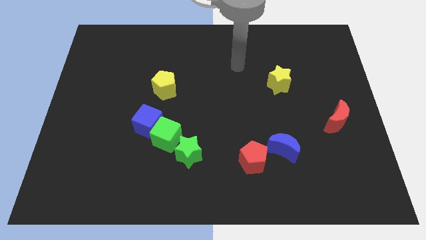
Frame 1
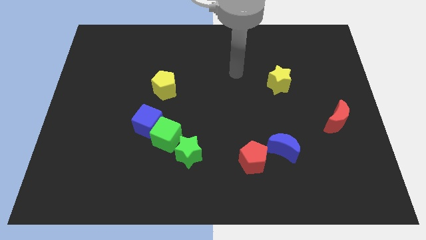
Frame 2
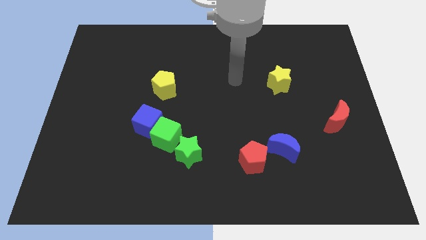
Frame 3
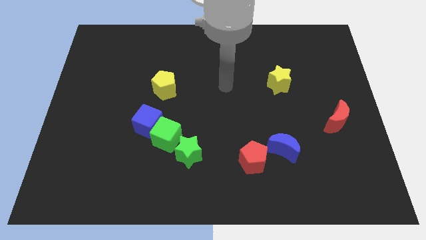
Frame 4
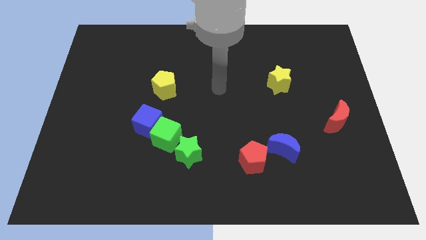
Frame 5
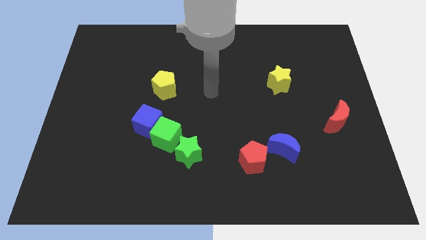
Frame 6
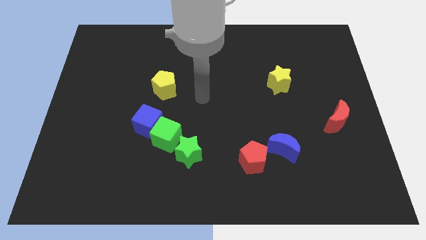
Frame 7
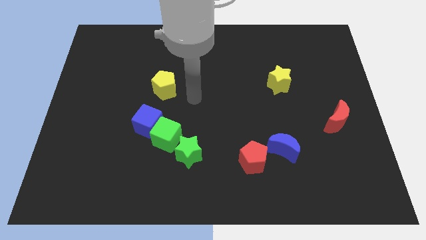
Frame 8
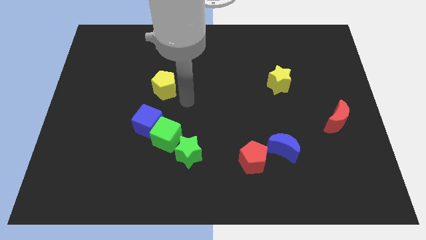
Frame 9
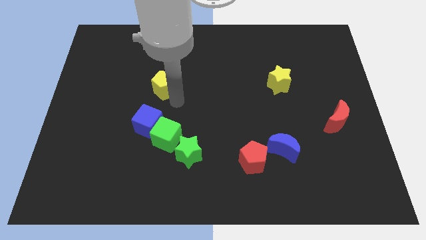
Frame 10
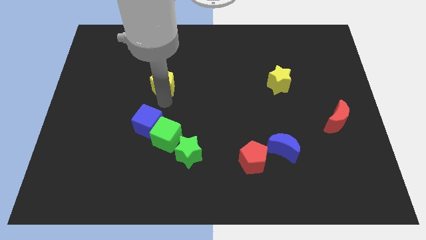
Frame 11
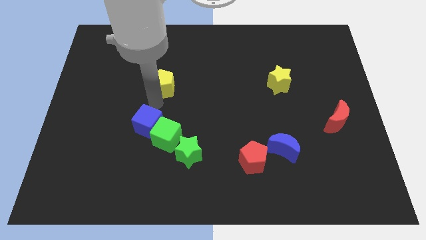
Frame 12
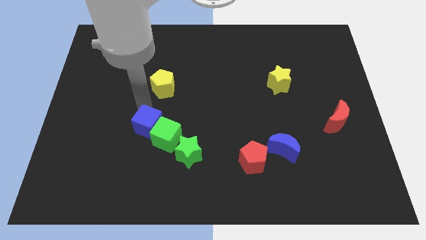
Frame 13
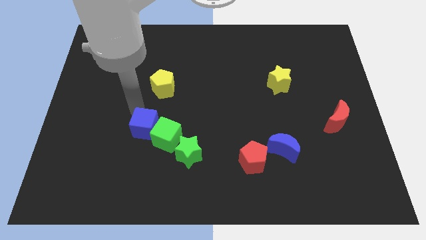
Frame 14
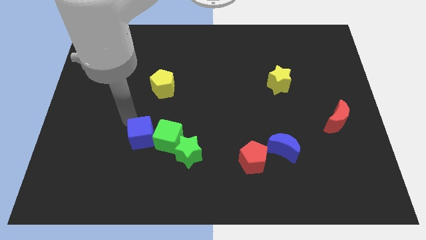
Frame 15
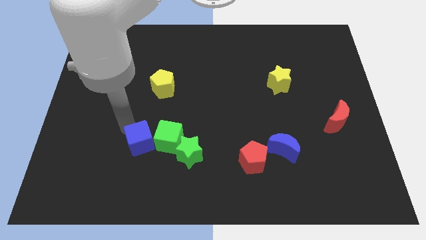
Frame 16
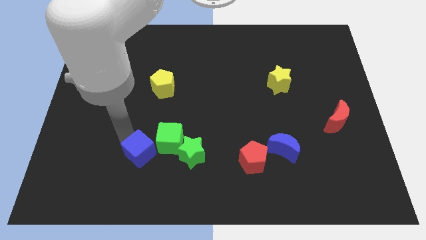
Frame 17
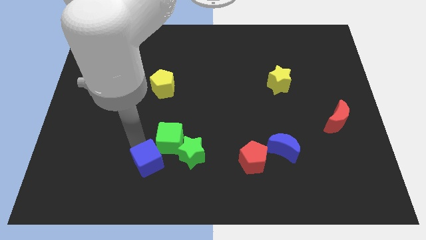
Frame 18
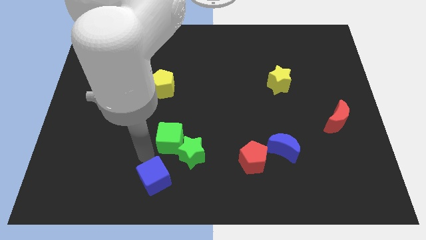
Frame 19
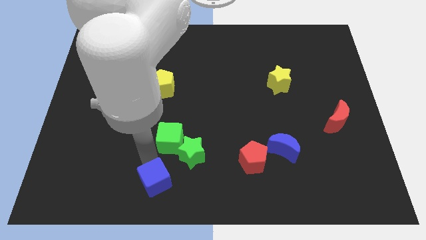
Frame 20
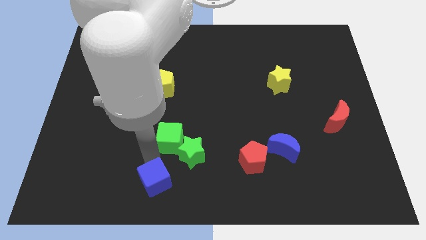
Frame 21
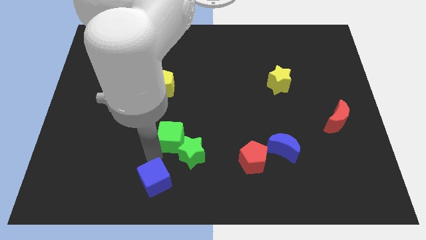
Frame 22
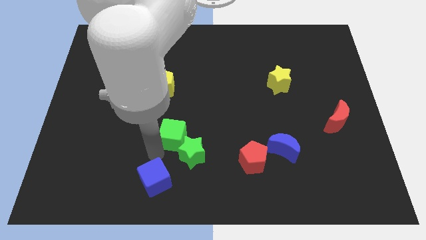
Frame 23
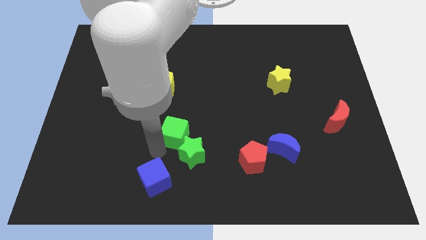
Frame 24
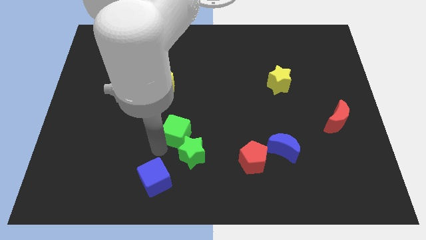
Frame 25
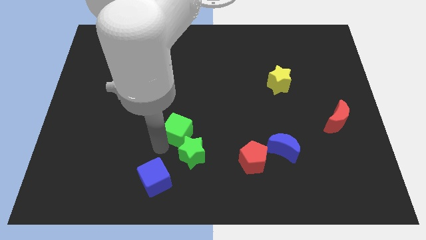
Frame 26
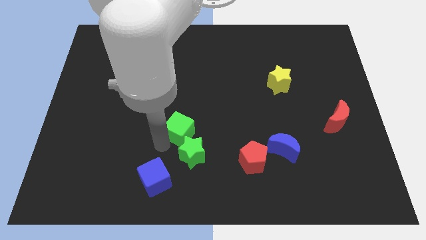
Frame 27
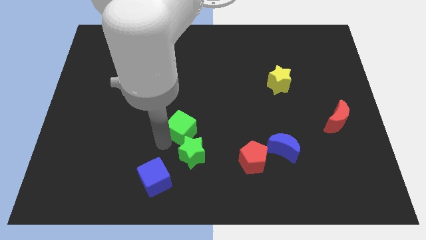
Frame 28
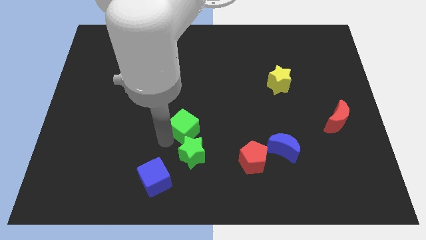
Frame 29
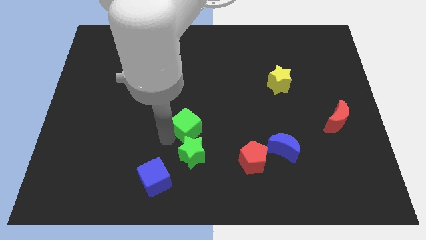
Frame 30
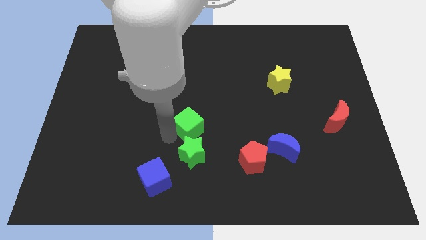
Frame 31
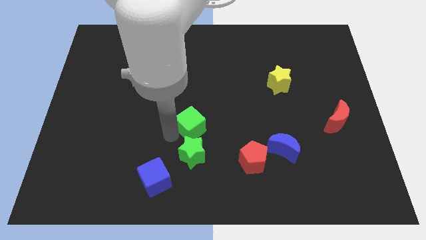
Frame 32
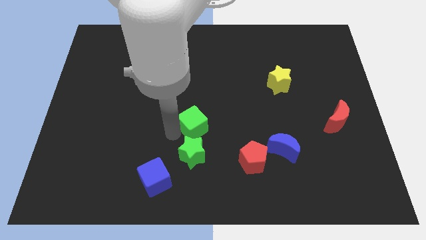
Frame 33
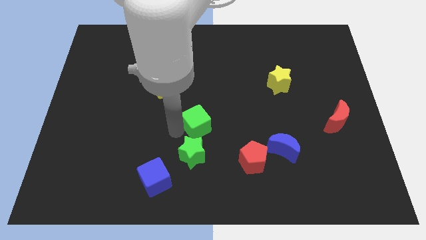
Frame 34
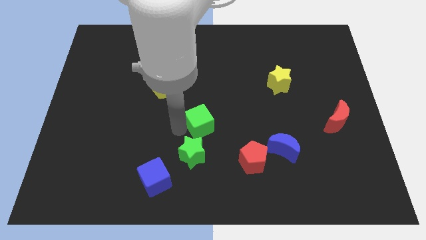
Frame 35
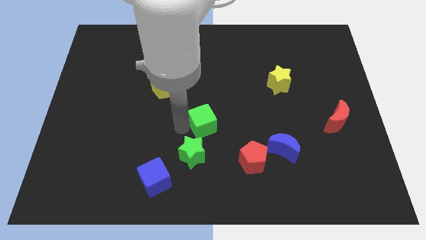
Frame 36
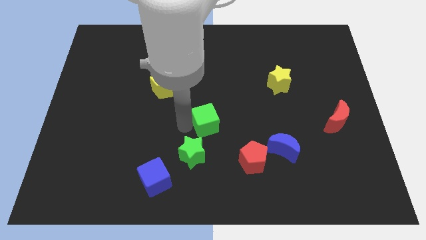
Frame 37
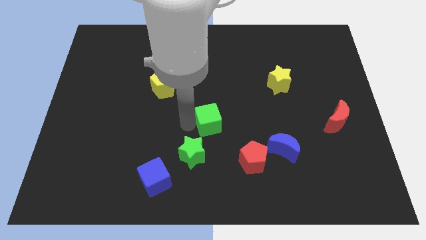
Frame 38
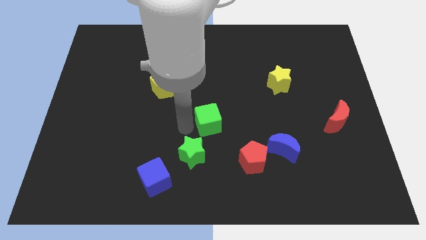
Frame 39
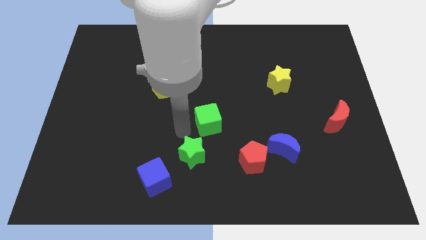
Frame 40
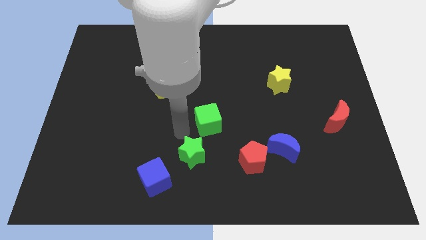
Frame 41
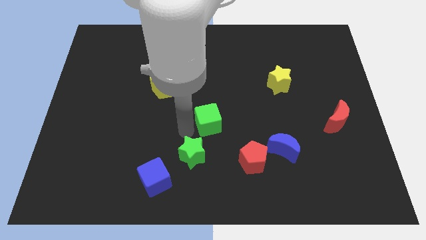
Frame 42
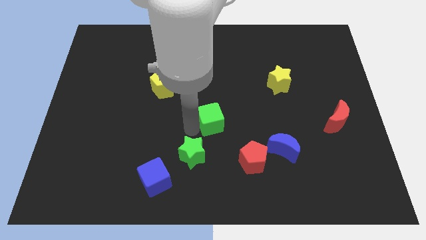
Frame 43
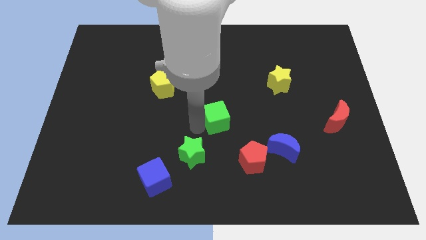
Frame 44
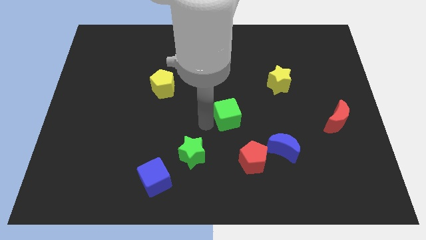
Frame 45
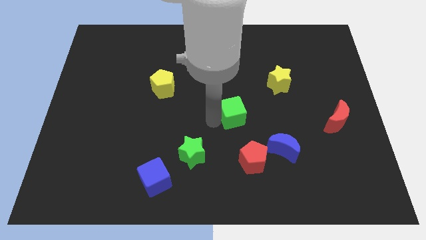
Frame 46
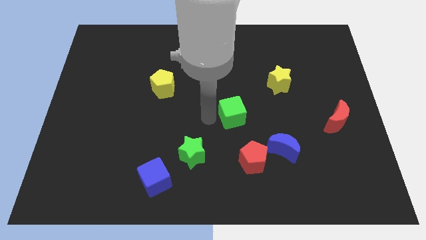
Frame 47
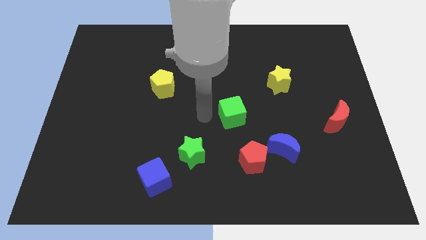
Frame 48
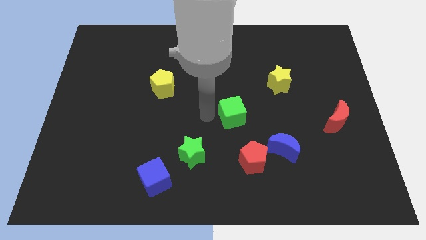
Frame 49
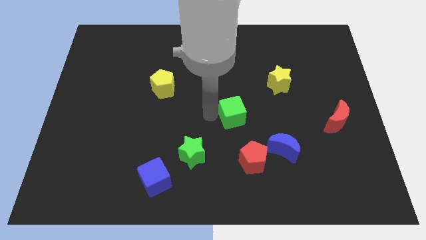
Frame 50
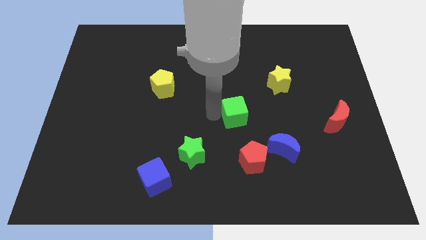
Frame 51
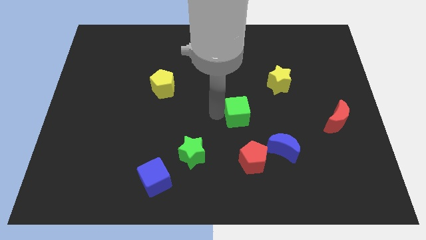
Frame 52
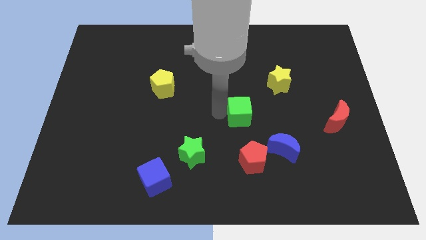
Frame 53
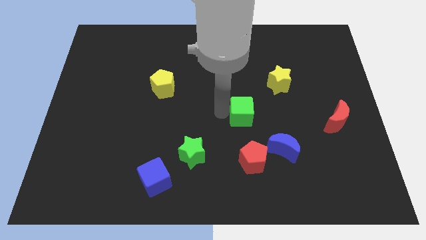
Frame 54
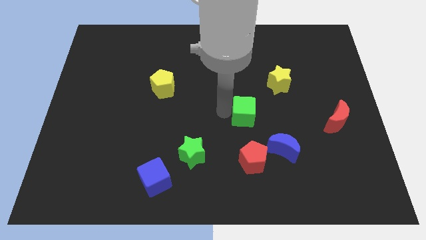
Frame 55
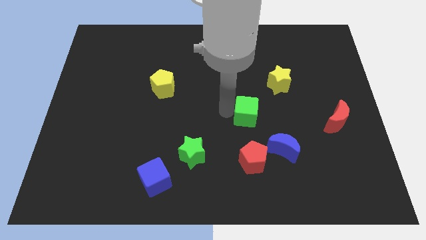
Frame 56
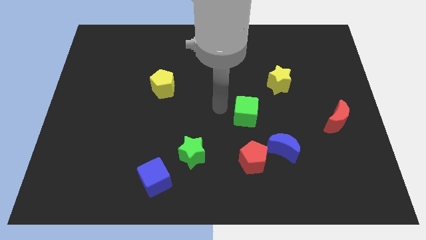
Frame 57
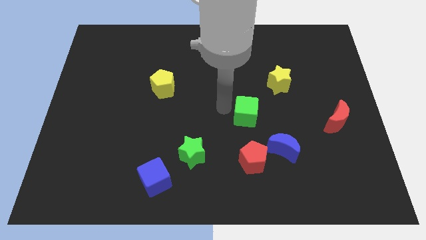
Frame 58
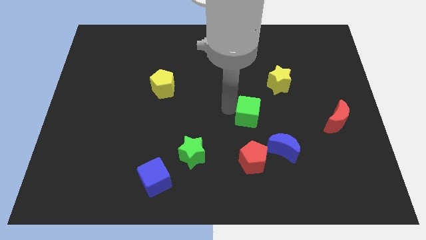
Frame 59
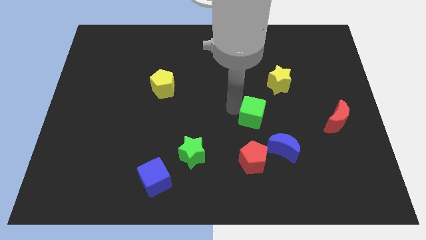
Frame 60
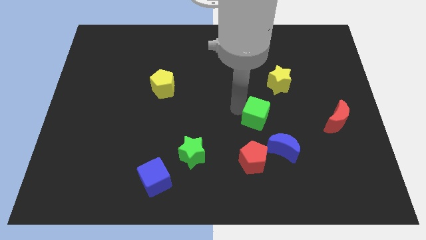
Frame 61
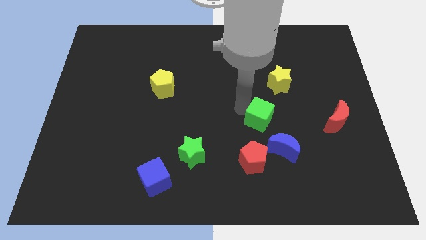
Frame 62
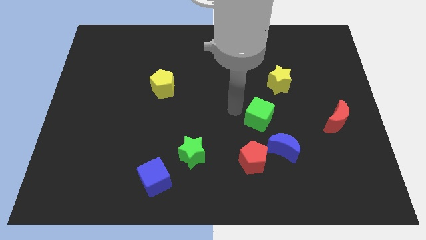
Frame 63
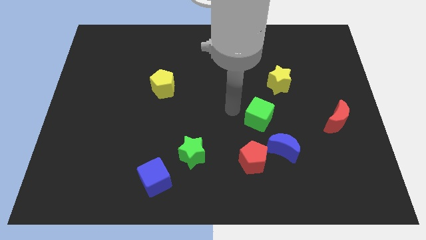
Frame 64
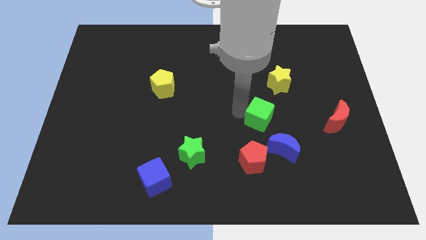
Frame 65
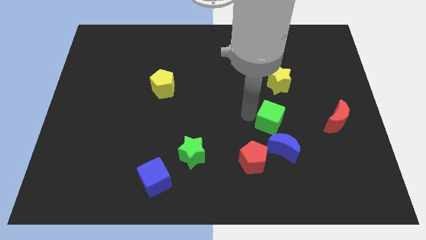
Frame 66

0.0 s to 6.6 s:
move the green cube right

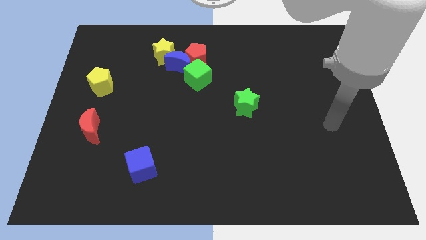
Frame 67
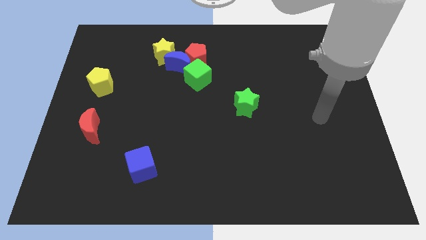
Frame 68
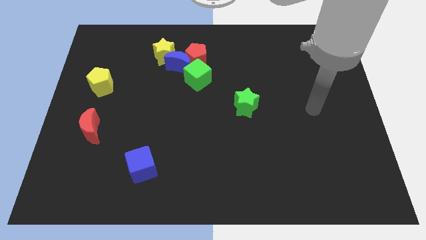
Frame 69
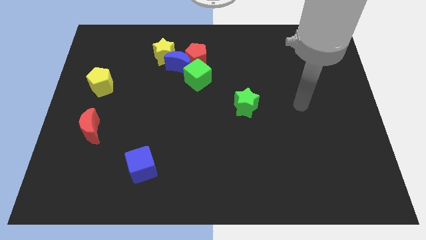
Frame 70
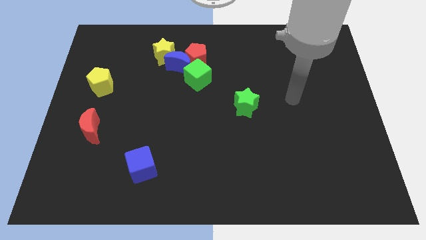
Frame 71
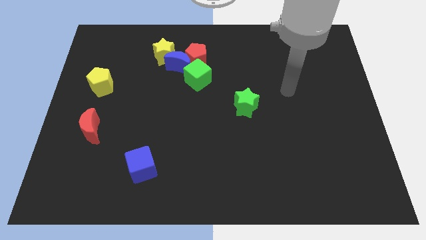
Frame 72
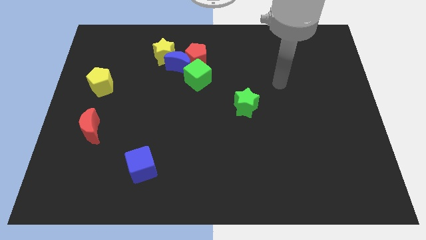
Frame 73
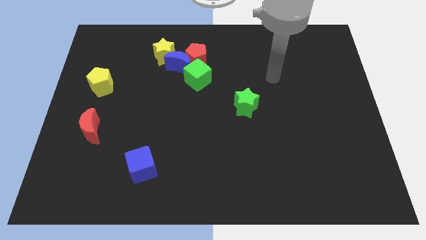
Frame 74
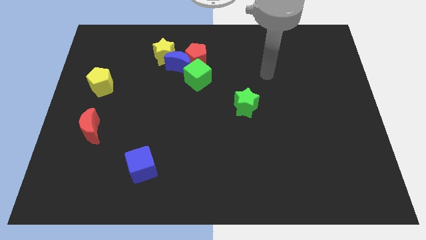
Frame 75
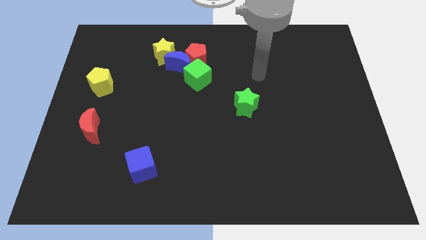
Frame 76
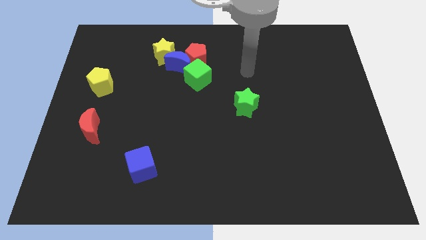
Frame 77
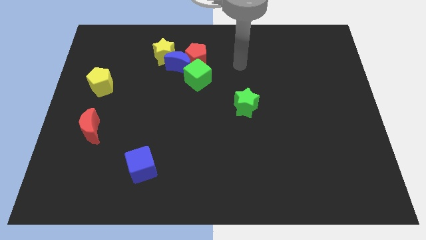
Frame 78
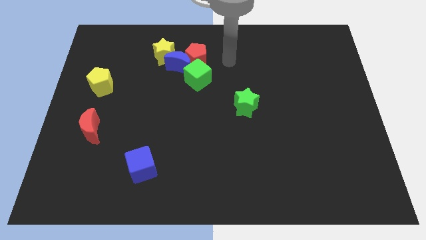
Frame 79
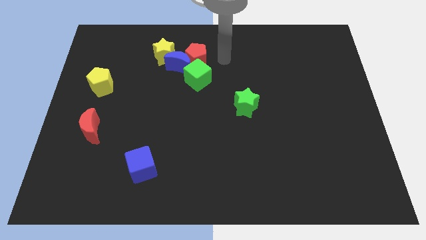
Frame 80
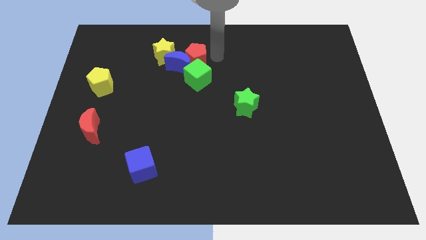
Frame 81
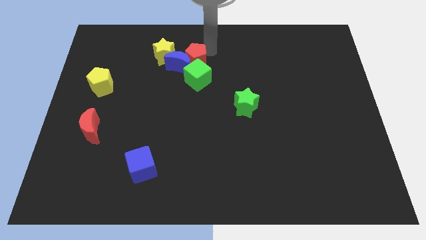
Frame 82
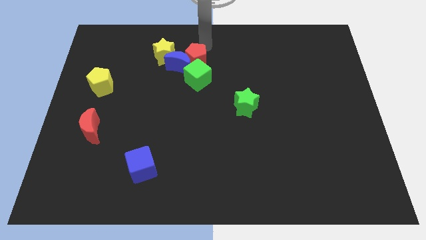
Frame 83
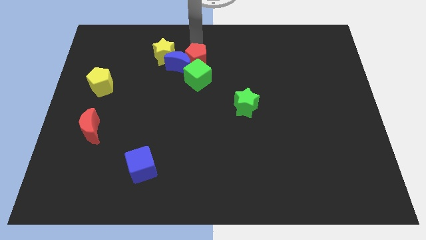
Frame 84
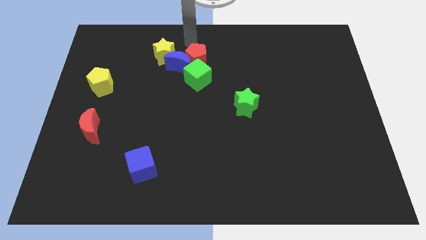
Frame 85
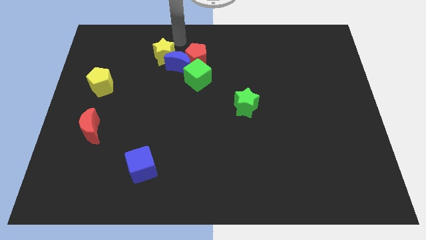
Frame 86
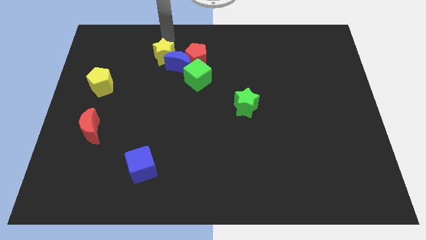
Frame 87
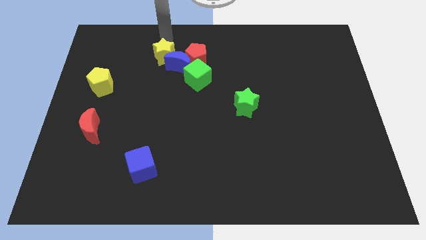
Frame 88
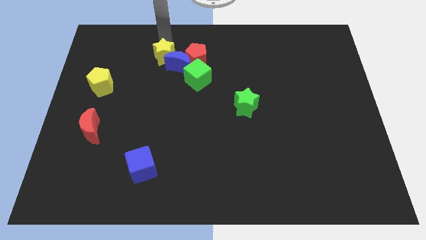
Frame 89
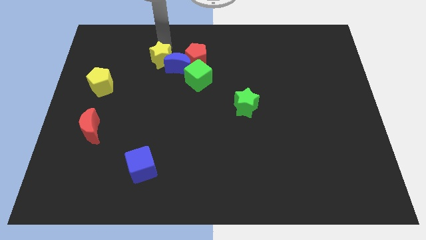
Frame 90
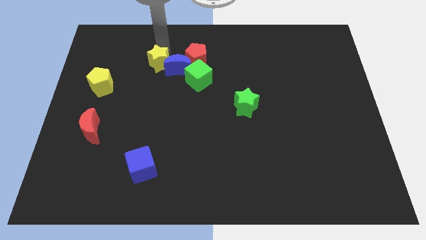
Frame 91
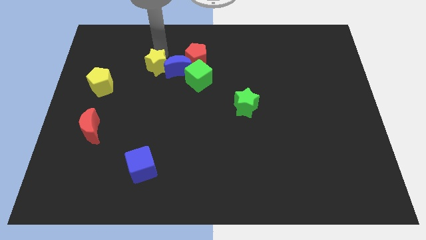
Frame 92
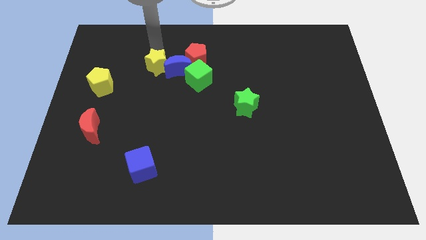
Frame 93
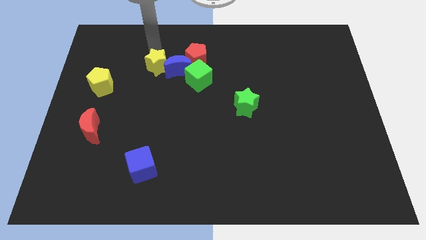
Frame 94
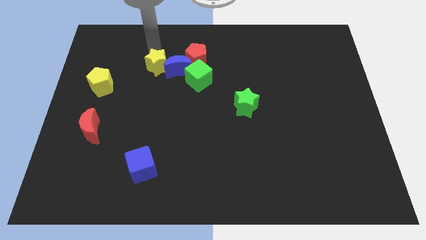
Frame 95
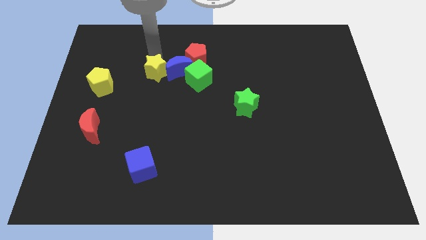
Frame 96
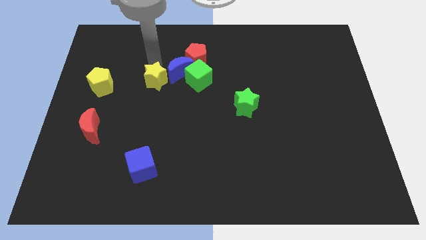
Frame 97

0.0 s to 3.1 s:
slightly move the yellow star downwards
